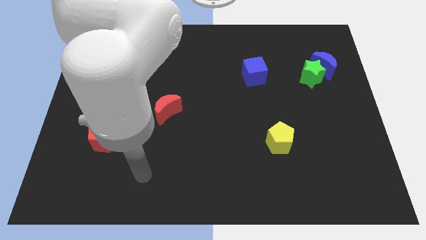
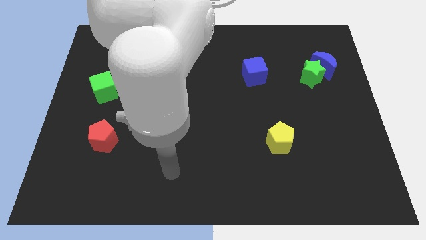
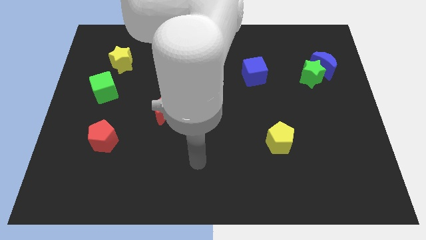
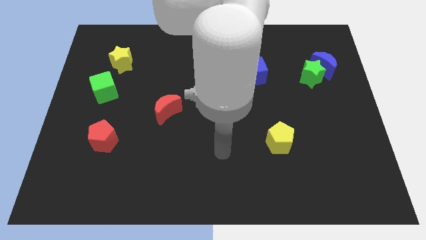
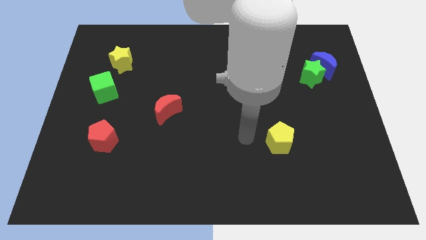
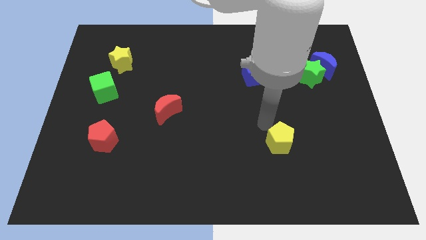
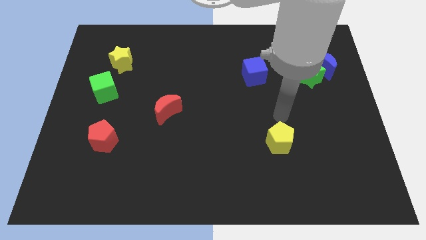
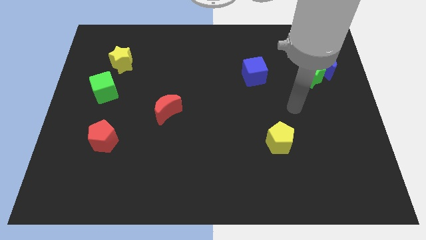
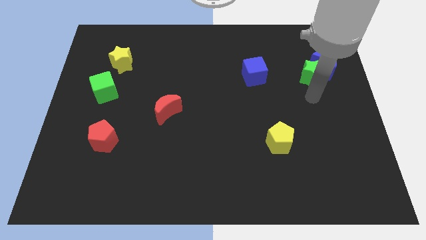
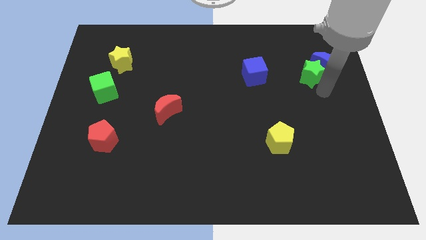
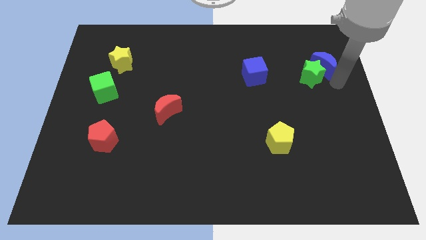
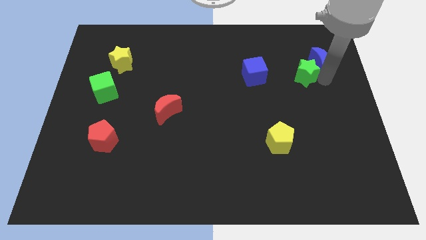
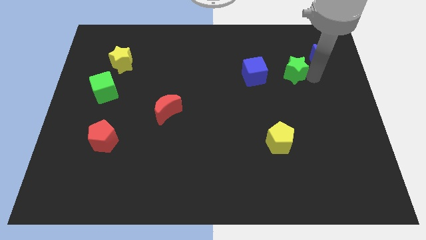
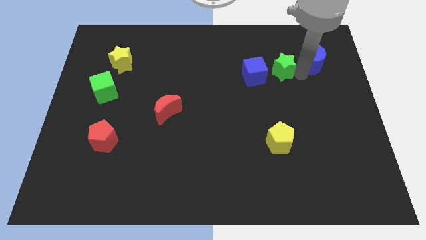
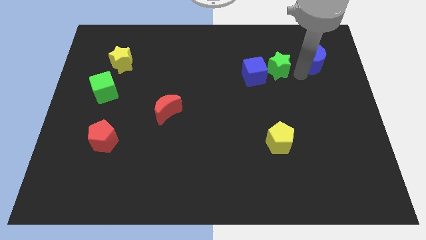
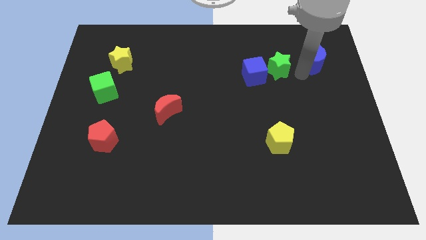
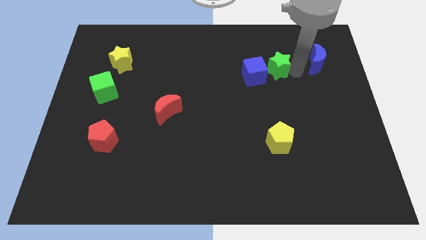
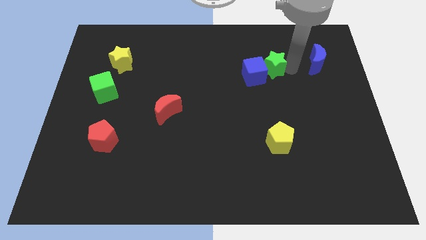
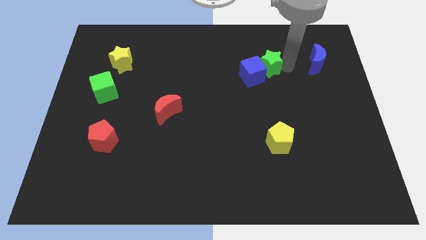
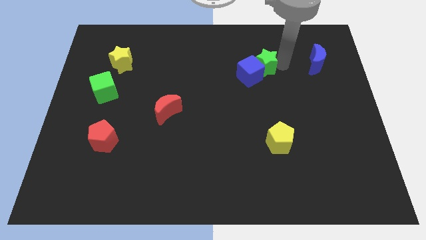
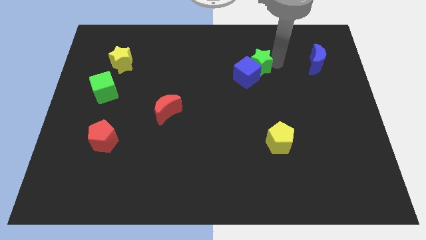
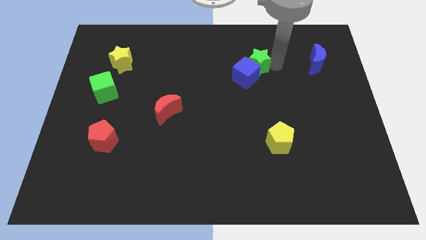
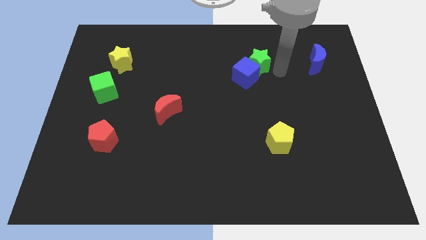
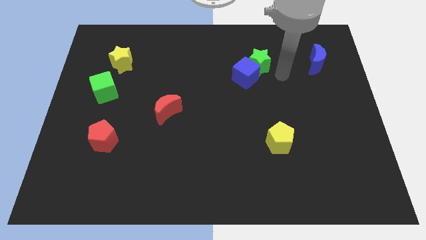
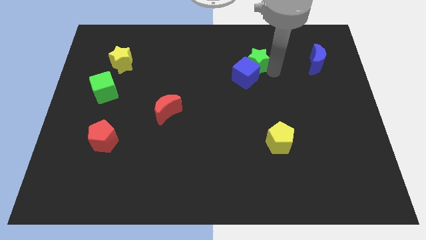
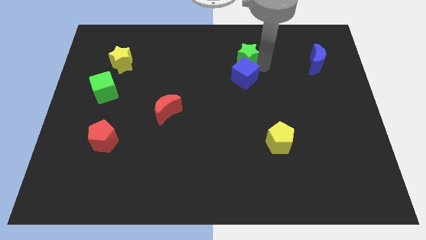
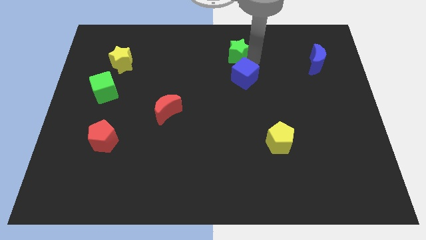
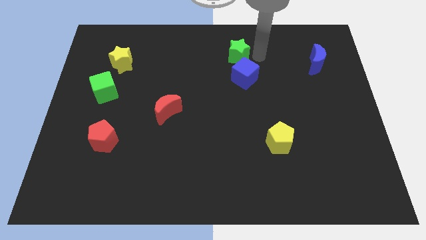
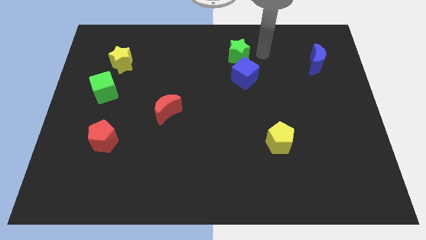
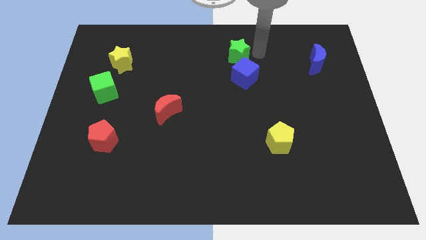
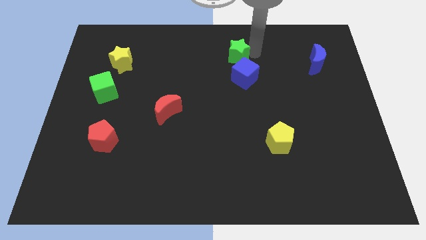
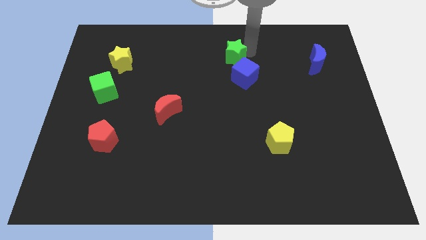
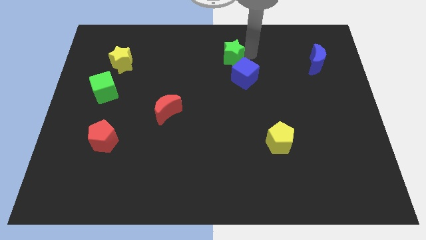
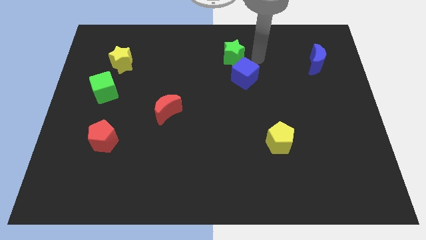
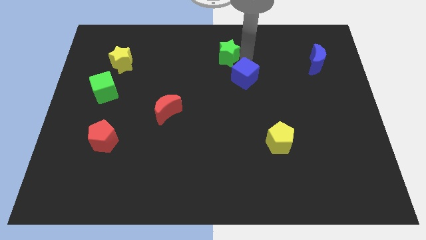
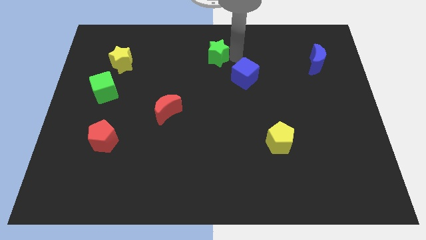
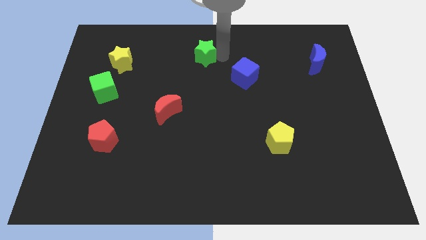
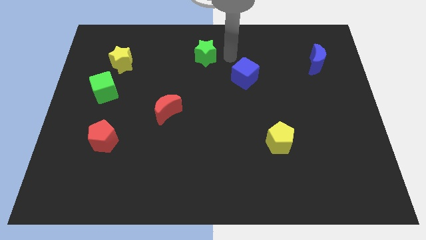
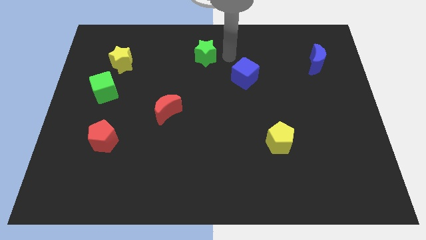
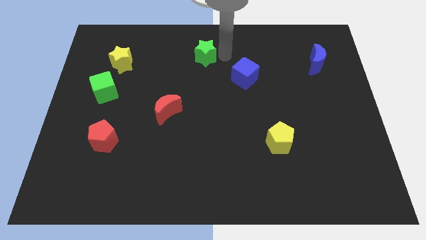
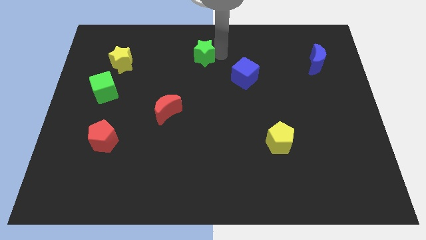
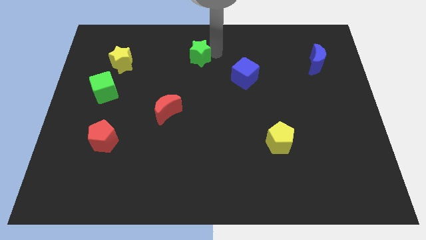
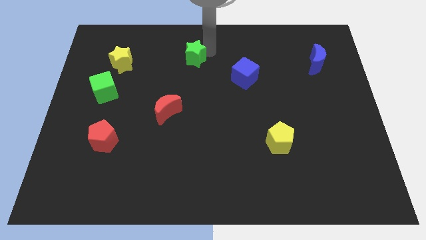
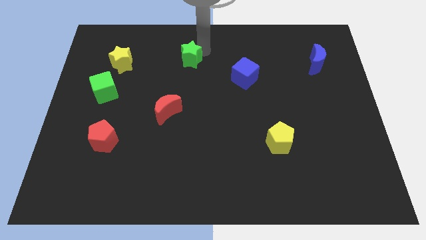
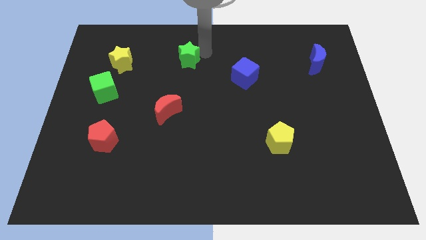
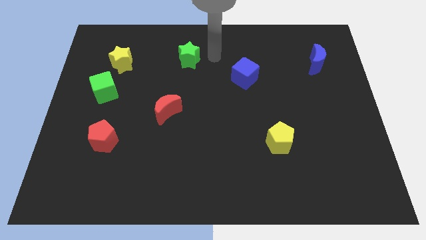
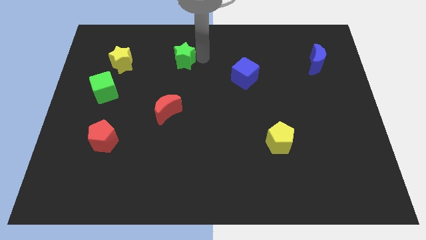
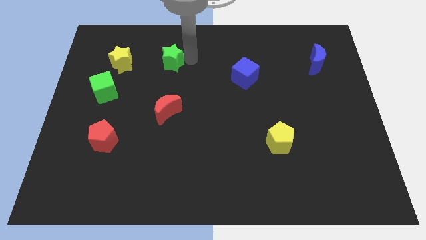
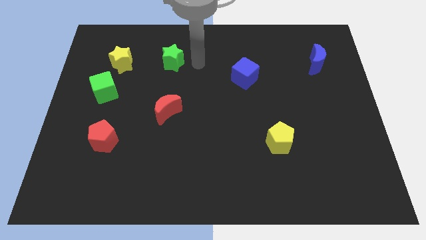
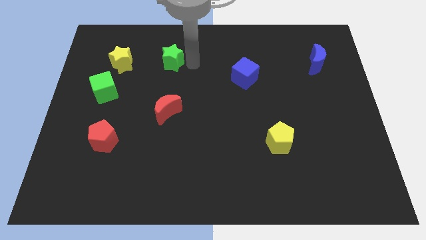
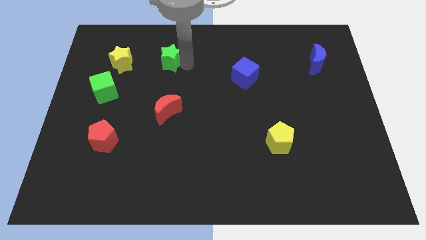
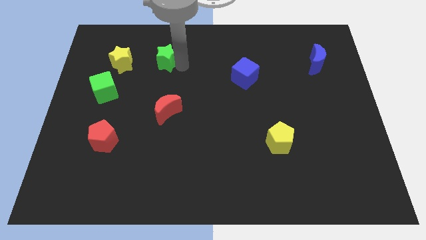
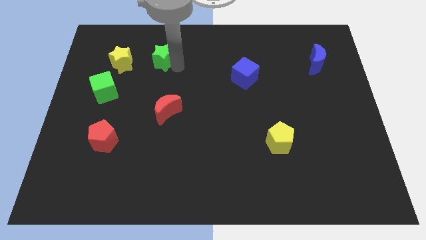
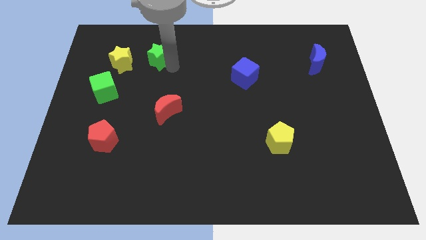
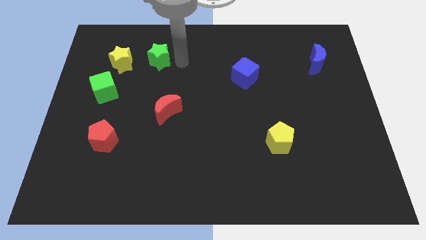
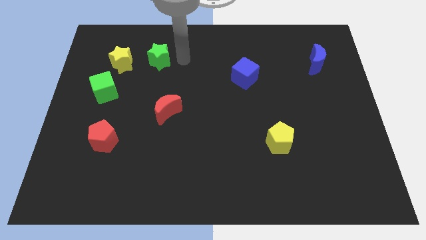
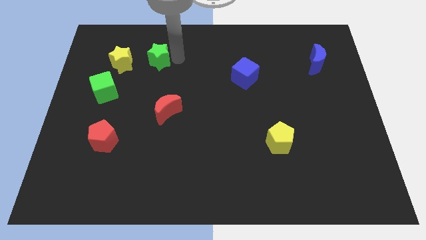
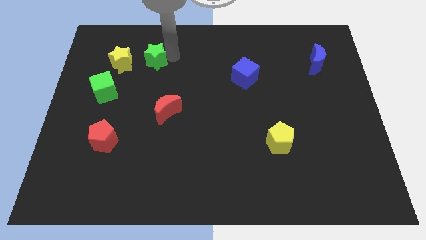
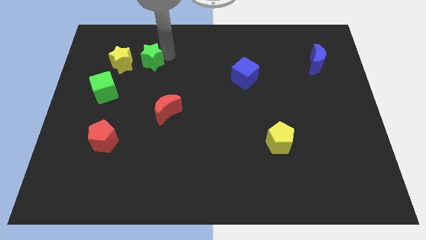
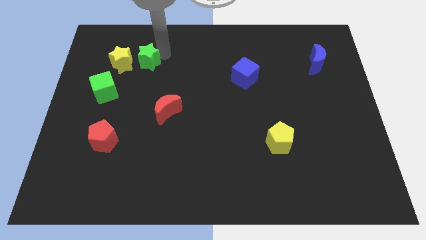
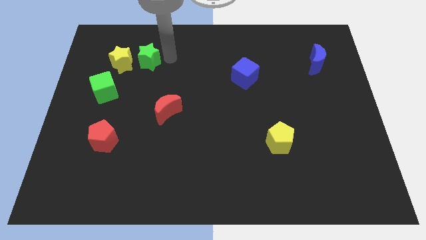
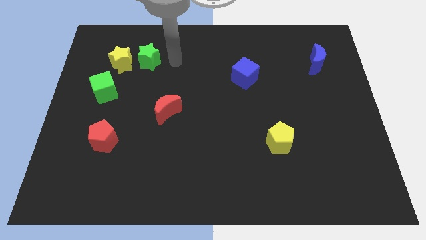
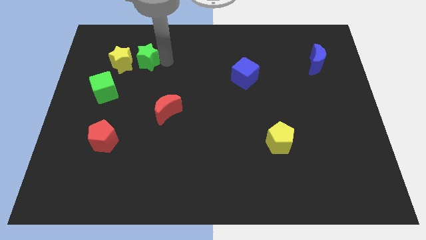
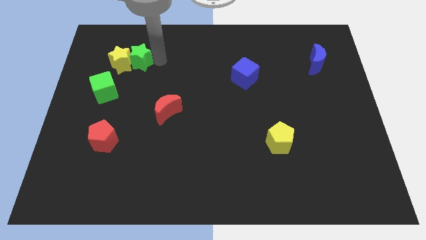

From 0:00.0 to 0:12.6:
move the green star towards the yellow star

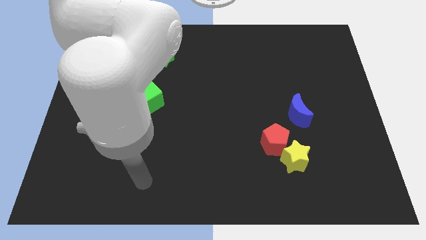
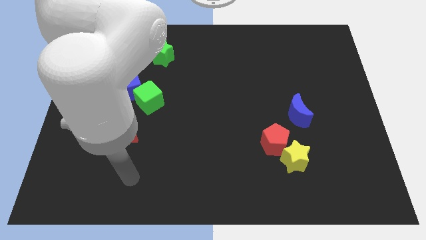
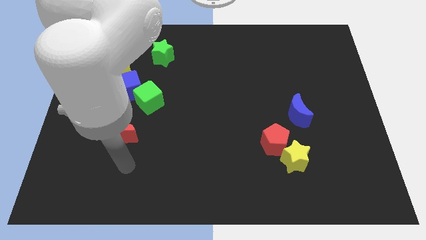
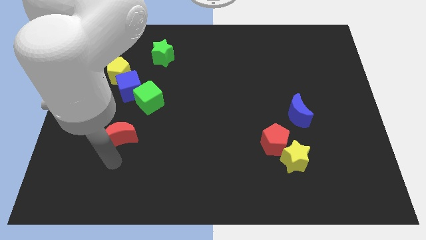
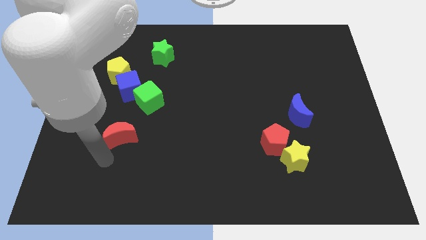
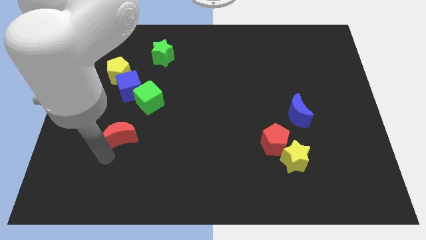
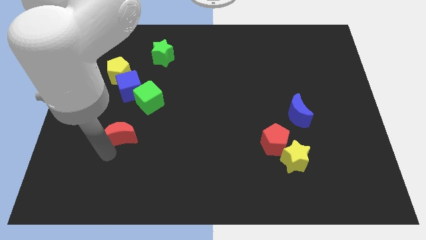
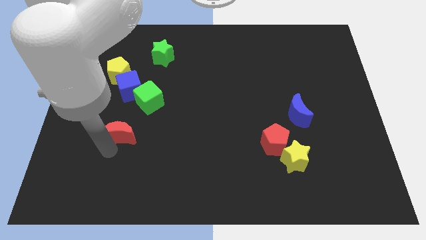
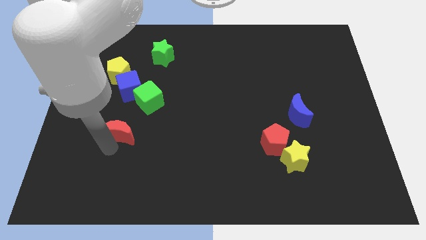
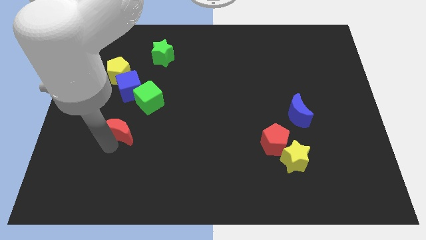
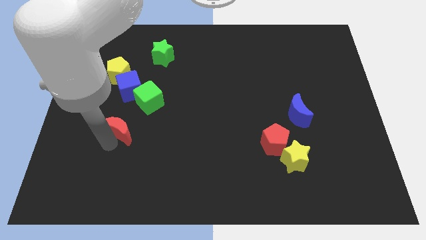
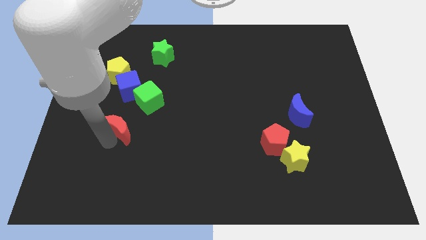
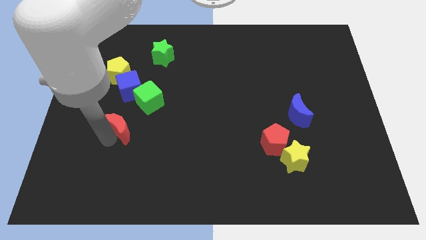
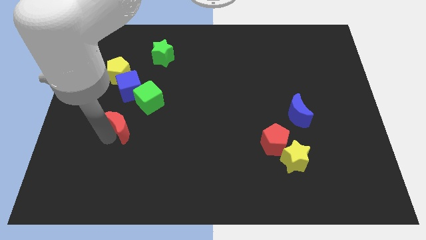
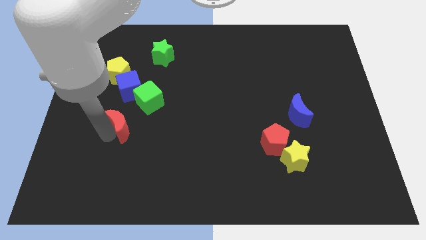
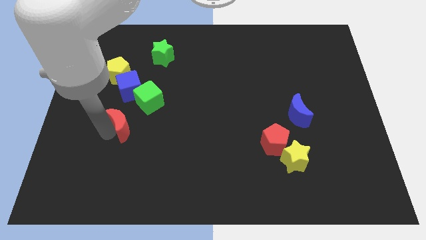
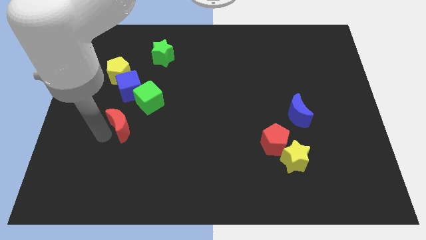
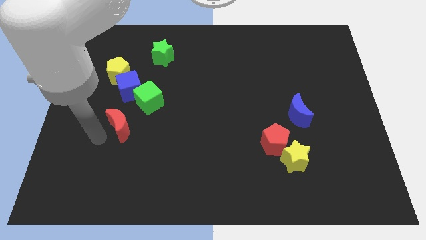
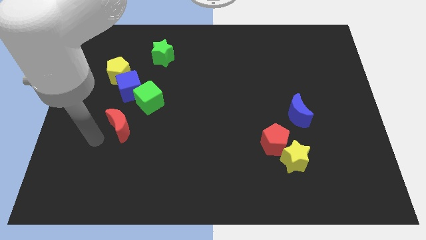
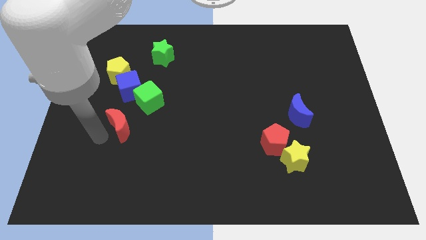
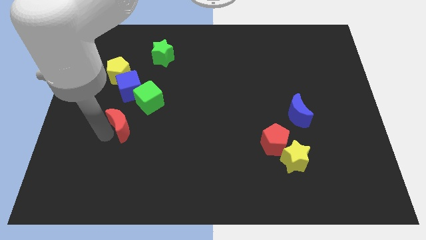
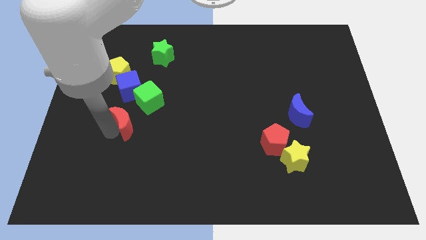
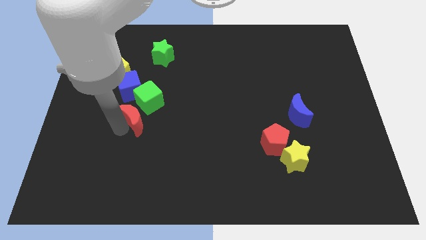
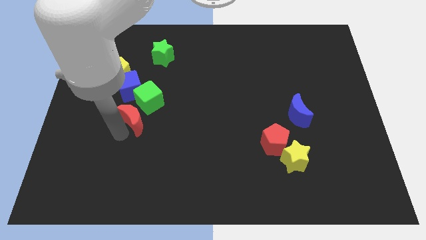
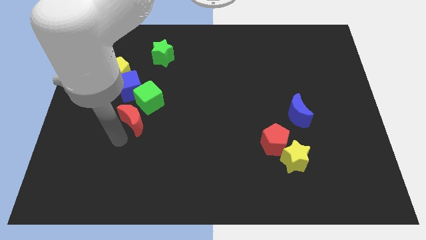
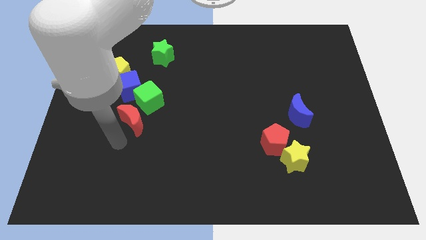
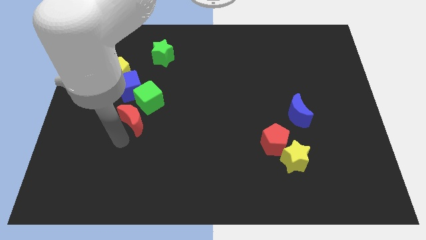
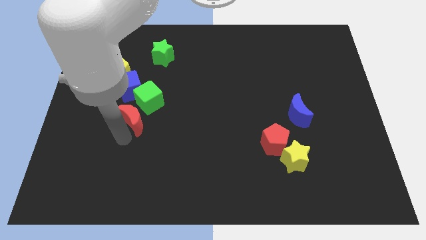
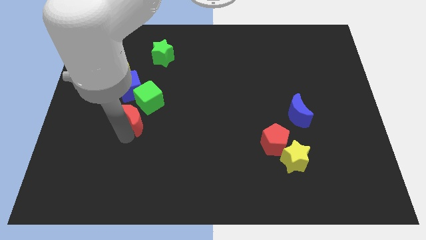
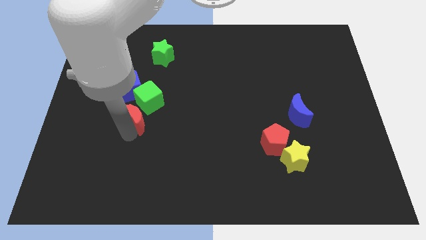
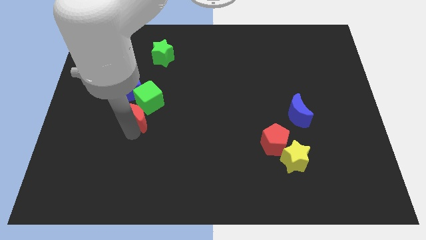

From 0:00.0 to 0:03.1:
slide the red moon next to the green cube
